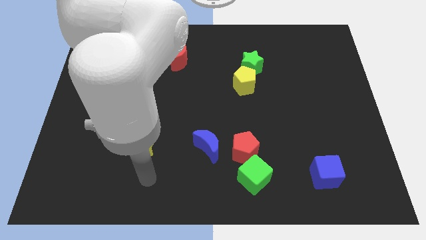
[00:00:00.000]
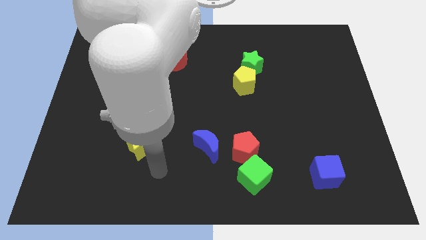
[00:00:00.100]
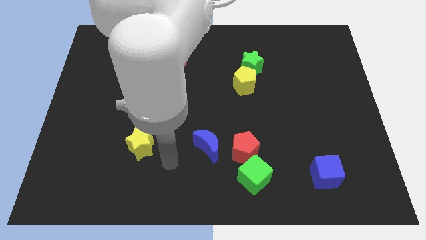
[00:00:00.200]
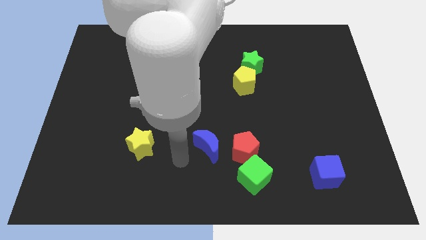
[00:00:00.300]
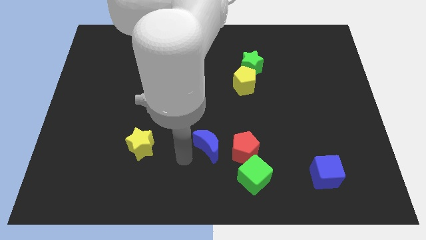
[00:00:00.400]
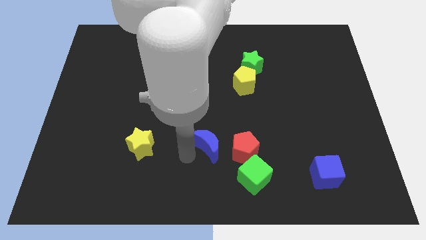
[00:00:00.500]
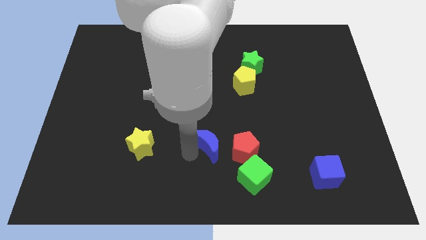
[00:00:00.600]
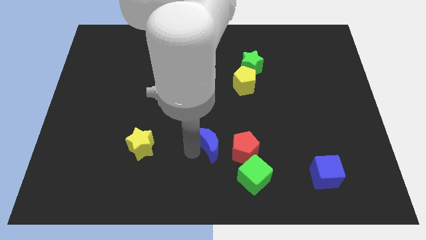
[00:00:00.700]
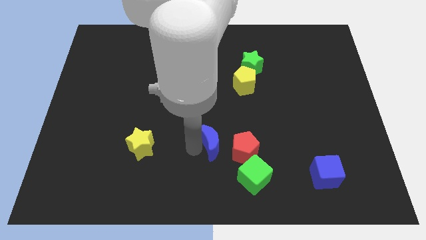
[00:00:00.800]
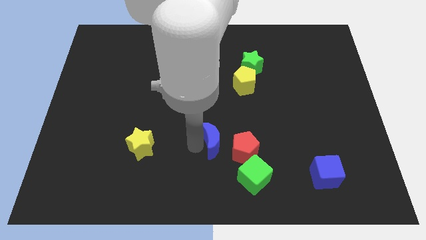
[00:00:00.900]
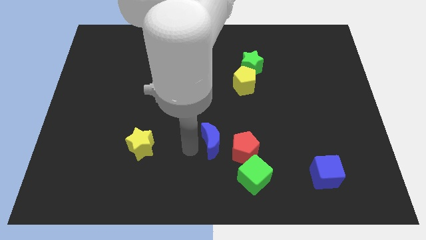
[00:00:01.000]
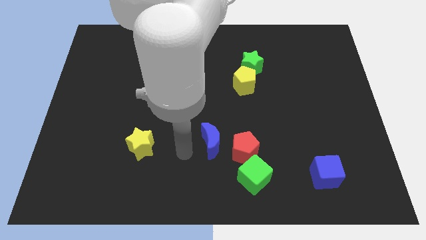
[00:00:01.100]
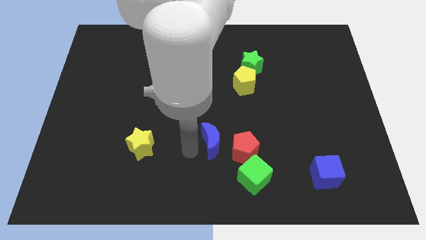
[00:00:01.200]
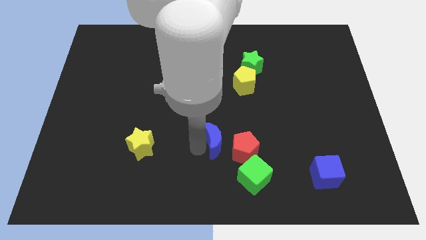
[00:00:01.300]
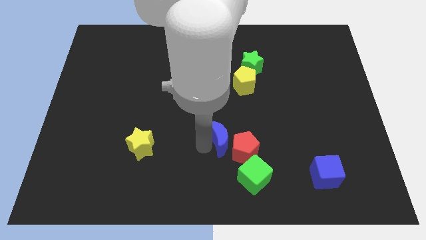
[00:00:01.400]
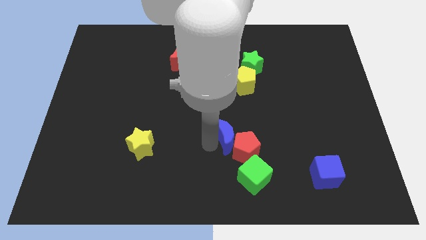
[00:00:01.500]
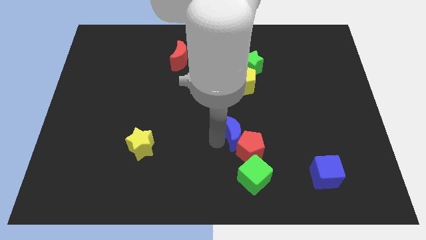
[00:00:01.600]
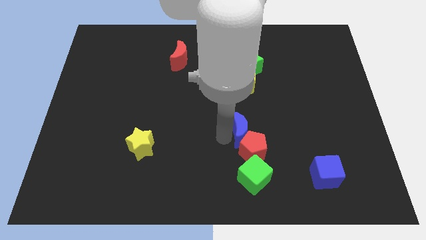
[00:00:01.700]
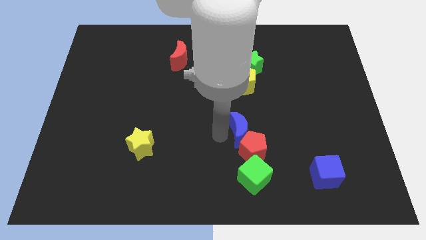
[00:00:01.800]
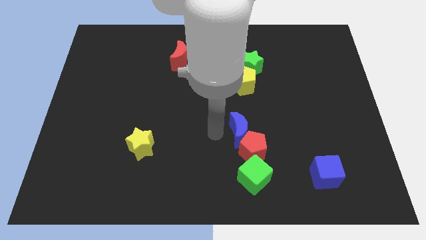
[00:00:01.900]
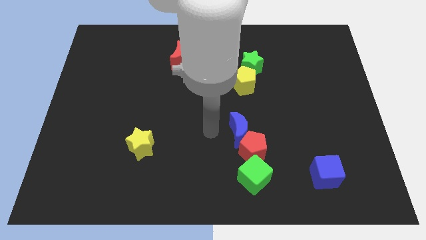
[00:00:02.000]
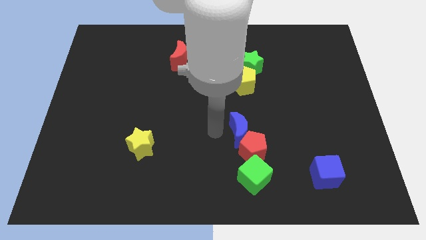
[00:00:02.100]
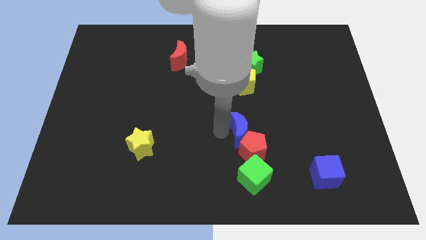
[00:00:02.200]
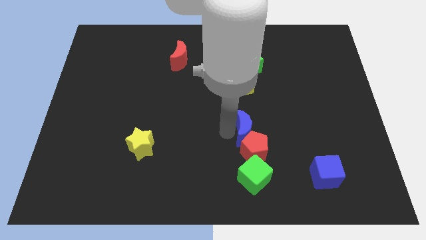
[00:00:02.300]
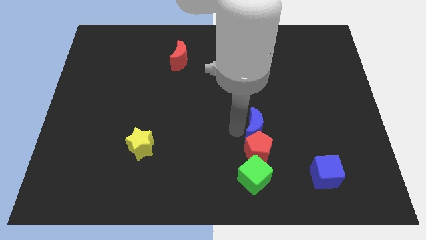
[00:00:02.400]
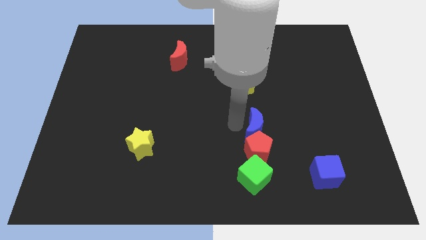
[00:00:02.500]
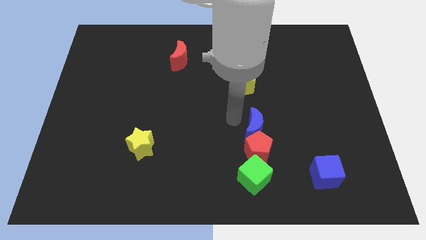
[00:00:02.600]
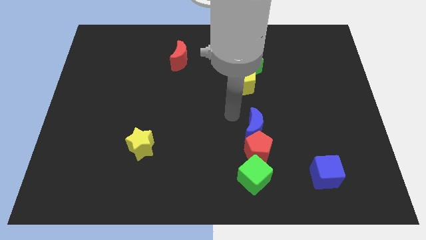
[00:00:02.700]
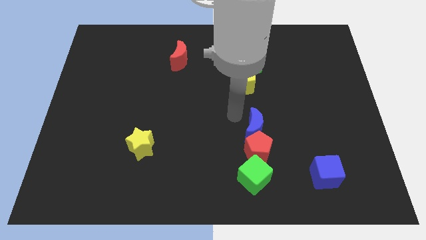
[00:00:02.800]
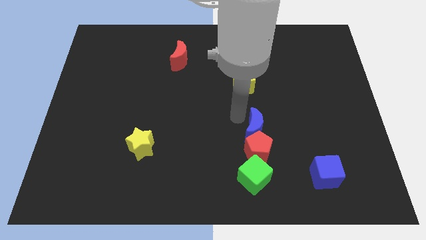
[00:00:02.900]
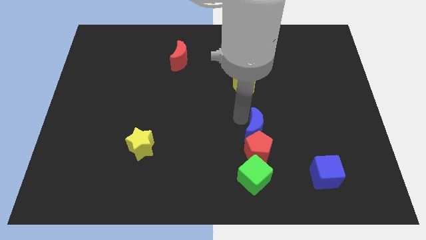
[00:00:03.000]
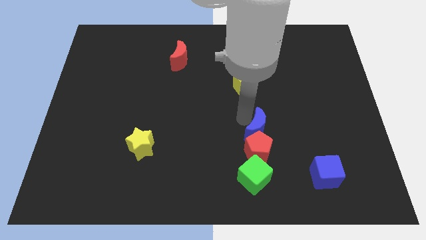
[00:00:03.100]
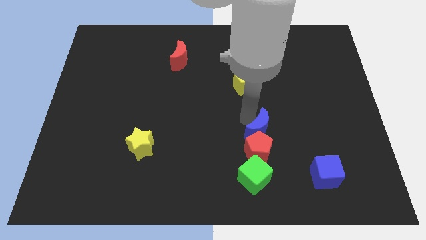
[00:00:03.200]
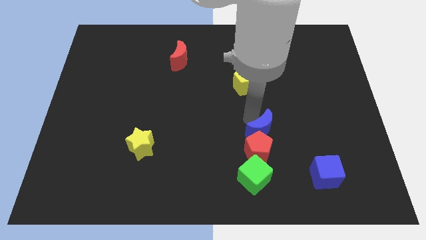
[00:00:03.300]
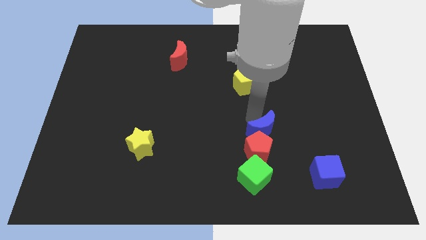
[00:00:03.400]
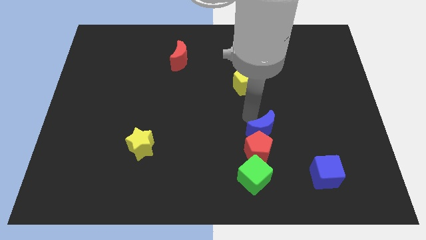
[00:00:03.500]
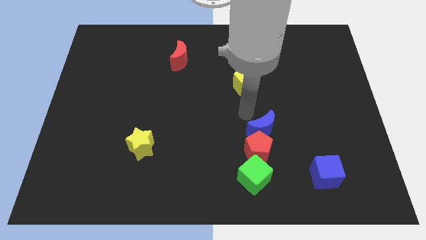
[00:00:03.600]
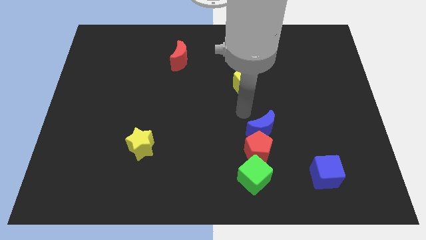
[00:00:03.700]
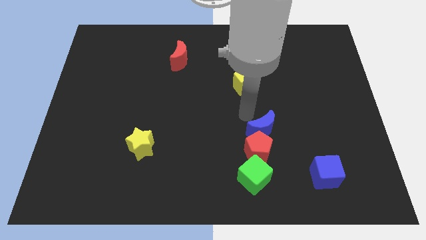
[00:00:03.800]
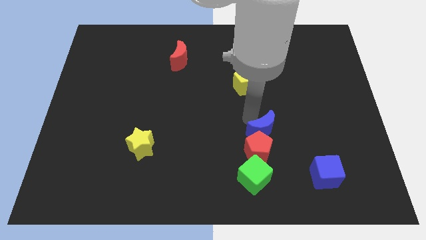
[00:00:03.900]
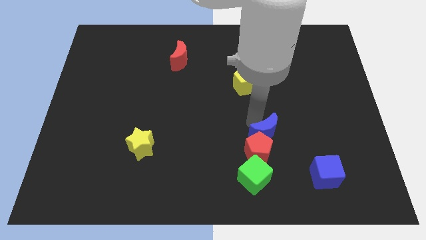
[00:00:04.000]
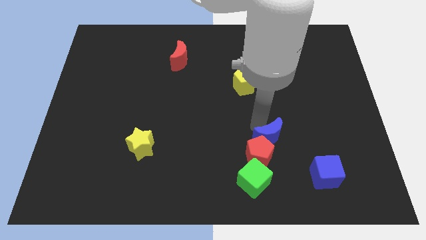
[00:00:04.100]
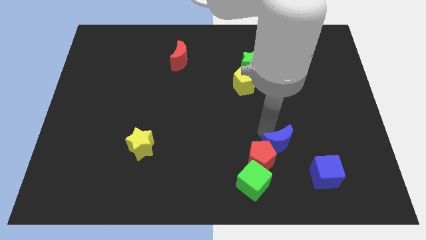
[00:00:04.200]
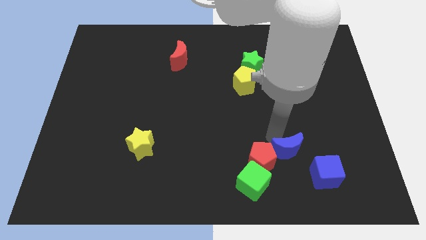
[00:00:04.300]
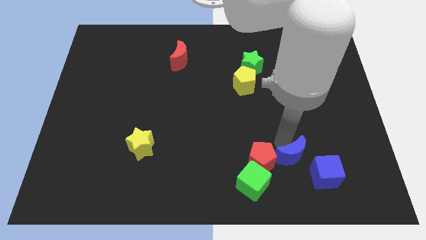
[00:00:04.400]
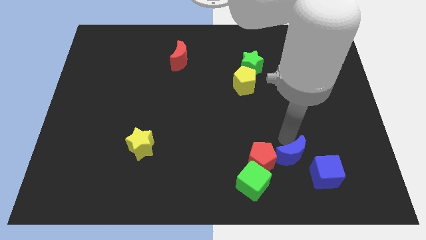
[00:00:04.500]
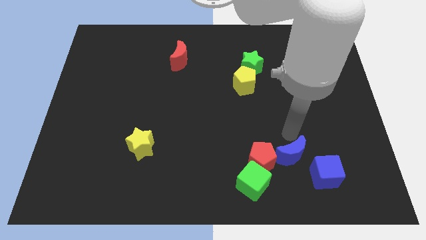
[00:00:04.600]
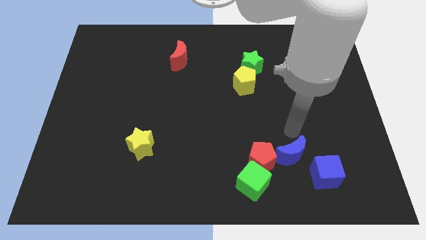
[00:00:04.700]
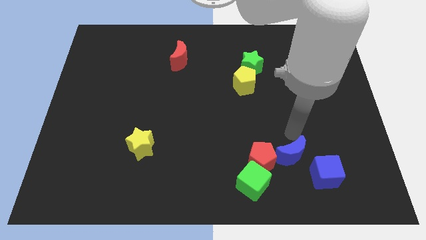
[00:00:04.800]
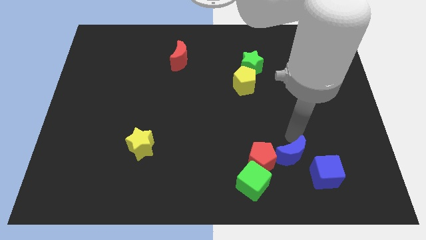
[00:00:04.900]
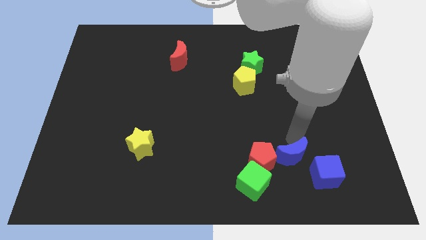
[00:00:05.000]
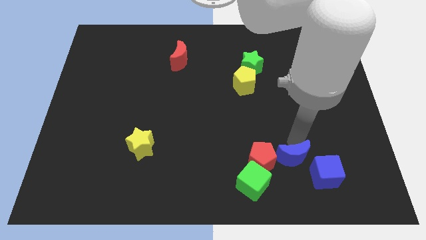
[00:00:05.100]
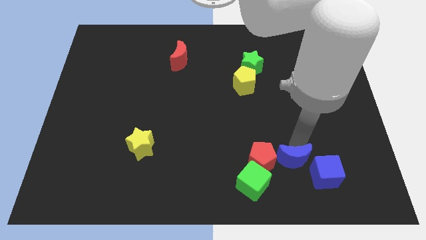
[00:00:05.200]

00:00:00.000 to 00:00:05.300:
slide the blue moon diagonally down and to the right of the red pentagon
